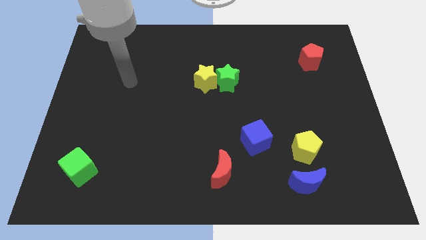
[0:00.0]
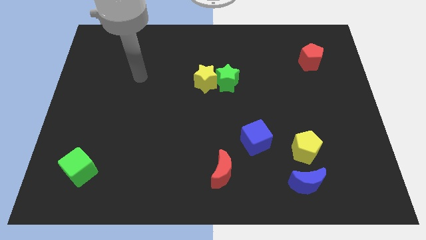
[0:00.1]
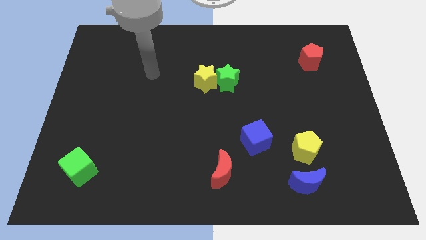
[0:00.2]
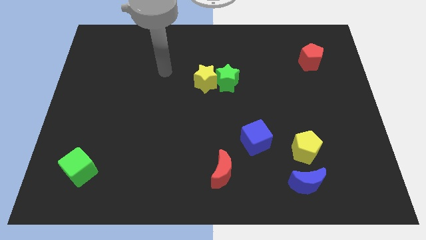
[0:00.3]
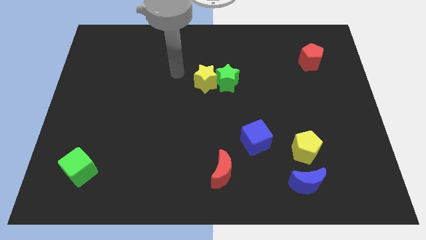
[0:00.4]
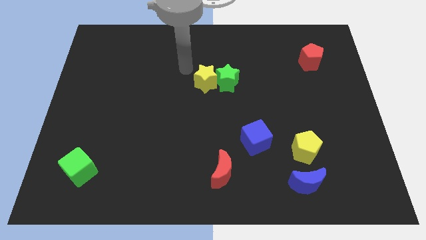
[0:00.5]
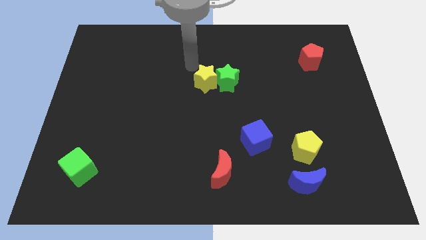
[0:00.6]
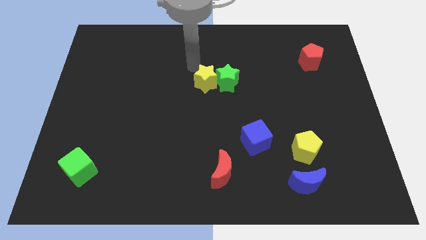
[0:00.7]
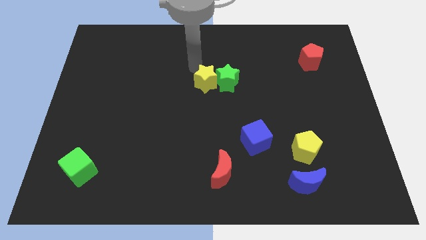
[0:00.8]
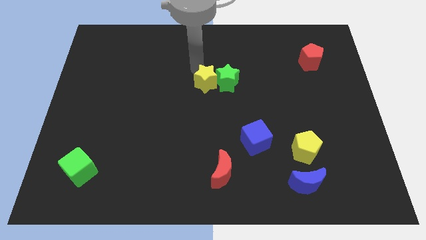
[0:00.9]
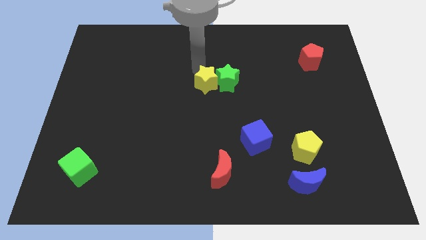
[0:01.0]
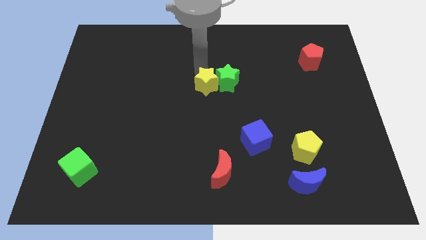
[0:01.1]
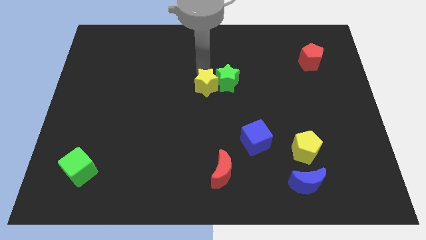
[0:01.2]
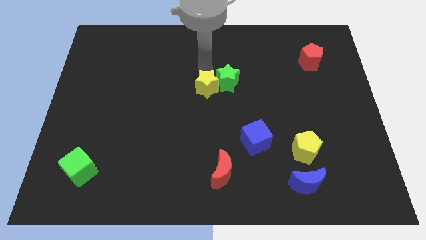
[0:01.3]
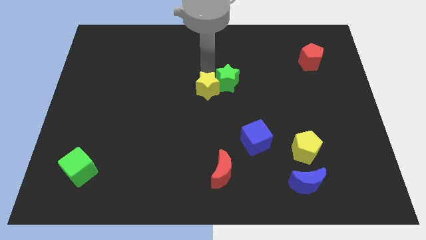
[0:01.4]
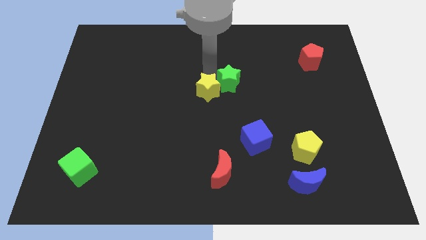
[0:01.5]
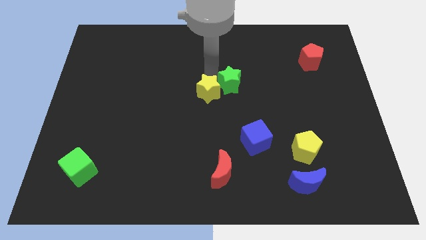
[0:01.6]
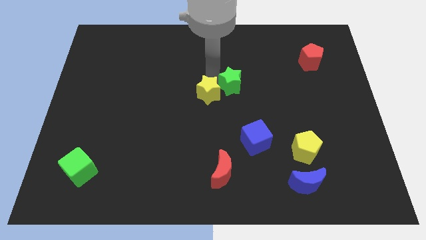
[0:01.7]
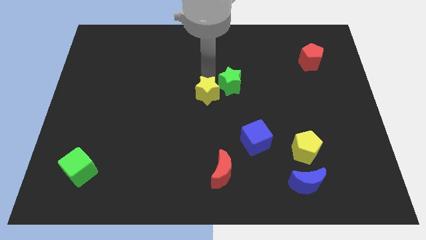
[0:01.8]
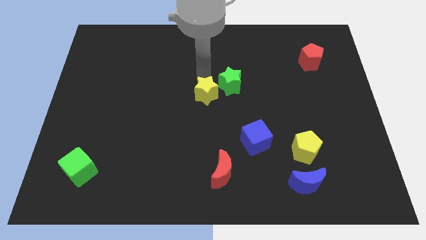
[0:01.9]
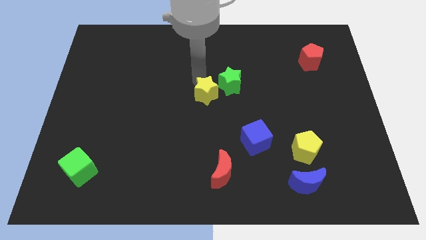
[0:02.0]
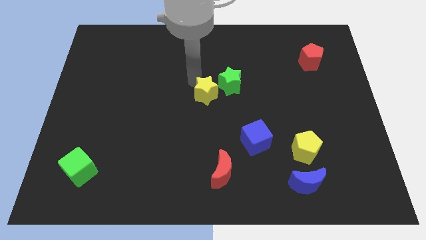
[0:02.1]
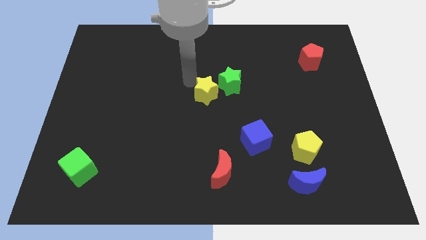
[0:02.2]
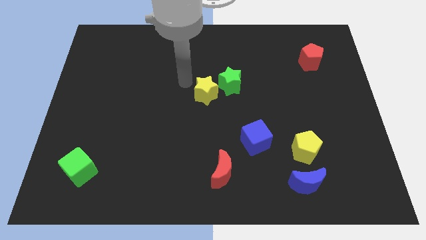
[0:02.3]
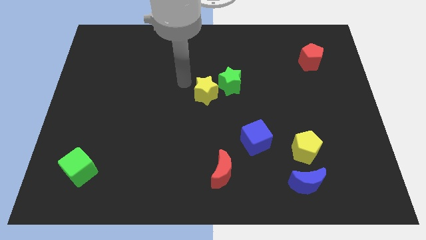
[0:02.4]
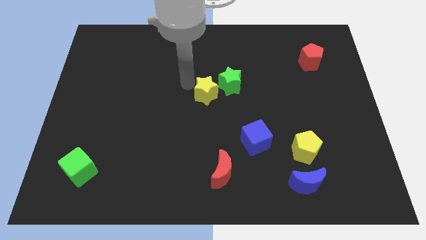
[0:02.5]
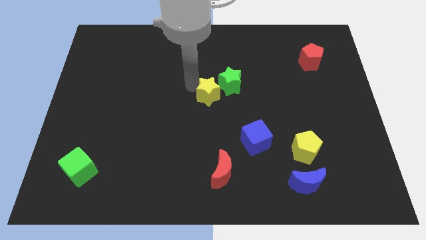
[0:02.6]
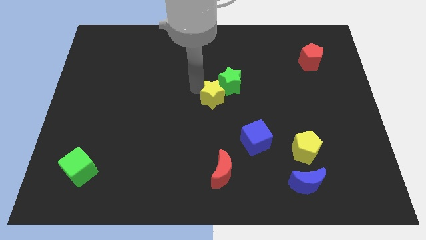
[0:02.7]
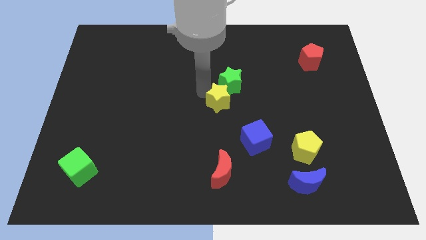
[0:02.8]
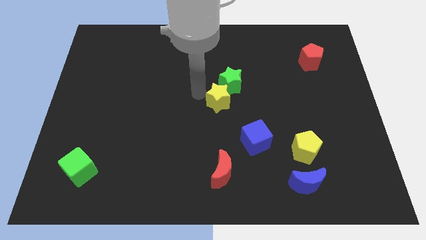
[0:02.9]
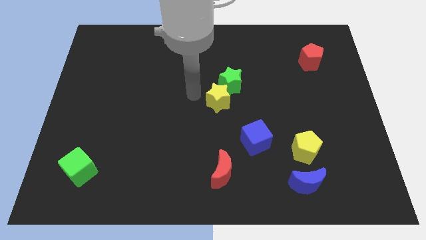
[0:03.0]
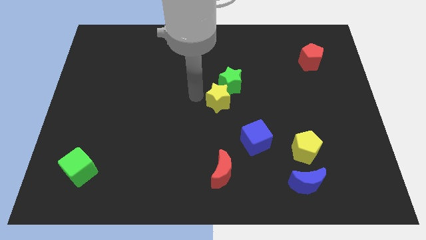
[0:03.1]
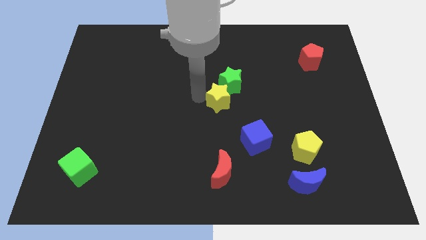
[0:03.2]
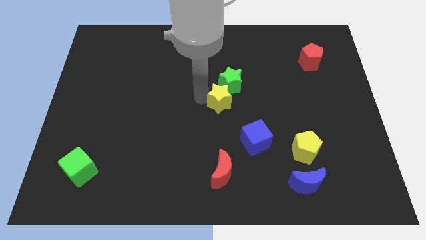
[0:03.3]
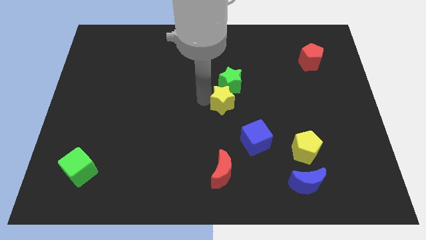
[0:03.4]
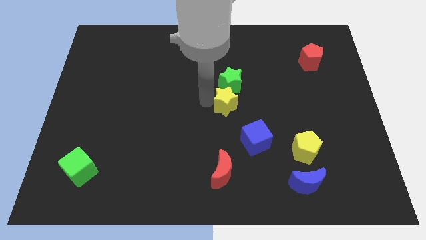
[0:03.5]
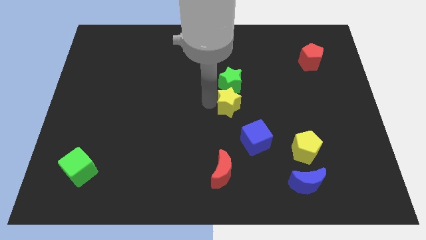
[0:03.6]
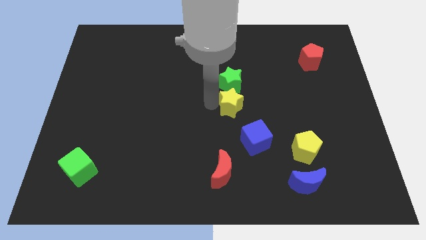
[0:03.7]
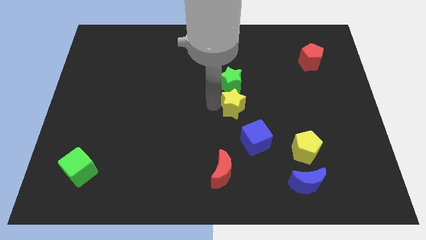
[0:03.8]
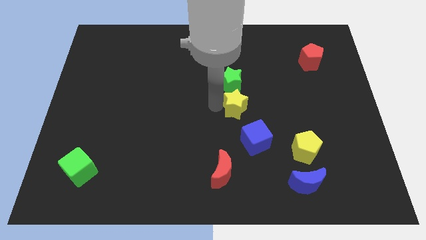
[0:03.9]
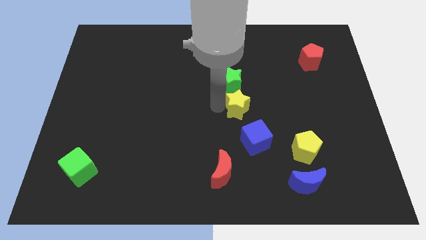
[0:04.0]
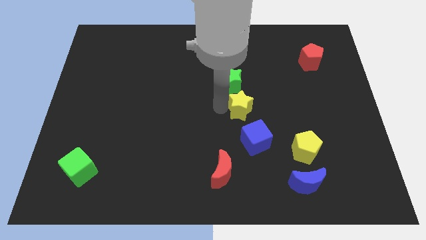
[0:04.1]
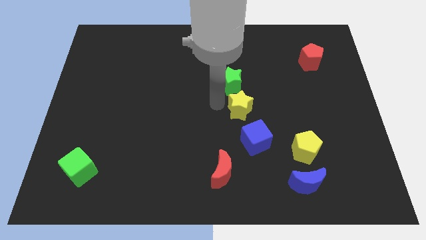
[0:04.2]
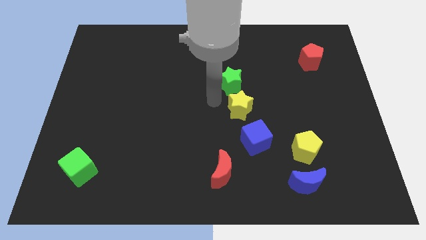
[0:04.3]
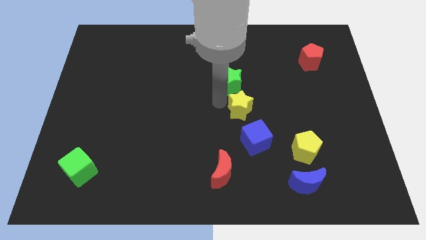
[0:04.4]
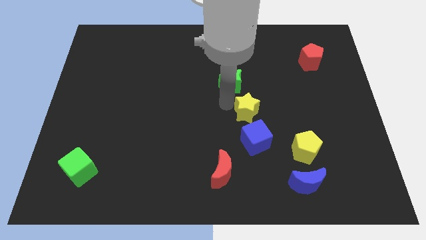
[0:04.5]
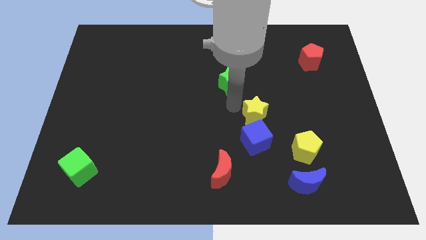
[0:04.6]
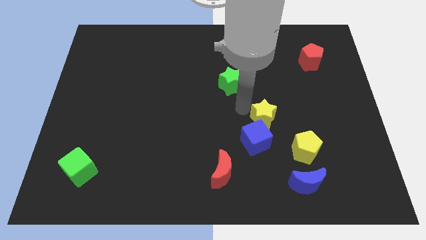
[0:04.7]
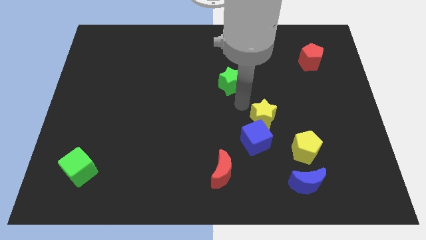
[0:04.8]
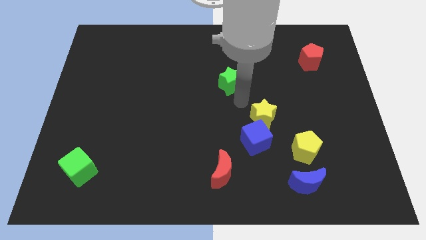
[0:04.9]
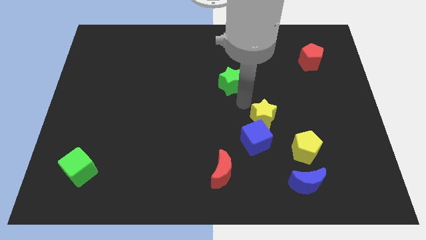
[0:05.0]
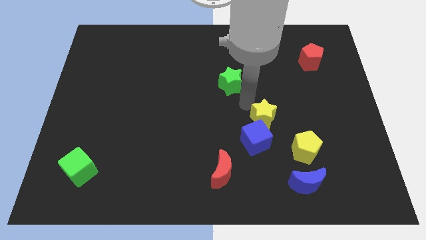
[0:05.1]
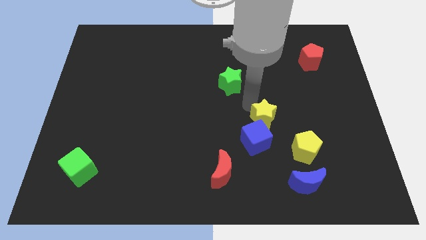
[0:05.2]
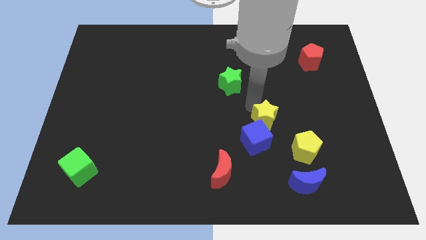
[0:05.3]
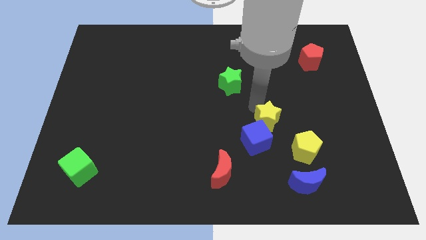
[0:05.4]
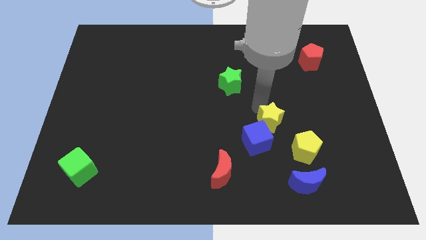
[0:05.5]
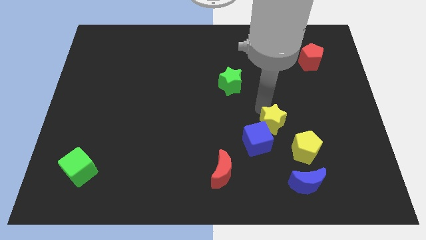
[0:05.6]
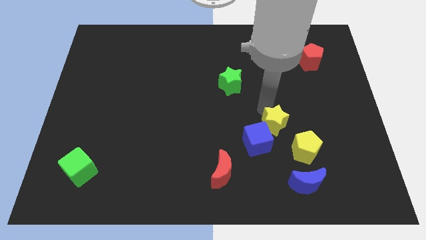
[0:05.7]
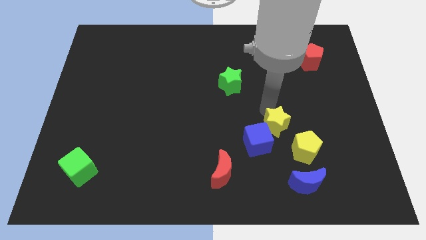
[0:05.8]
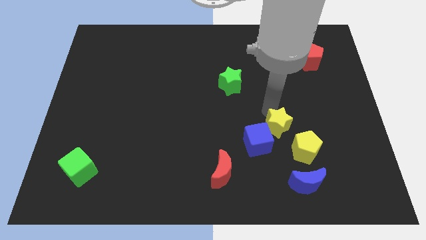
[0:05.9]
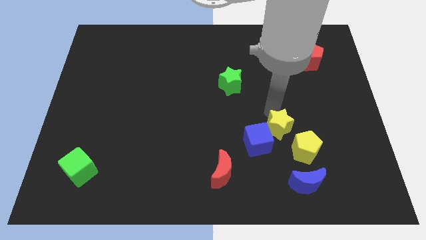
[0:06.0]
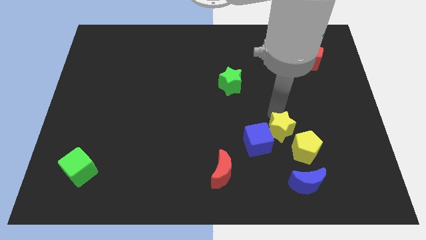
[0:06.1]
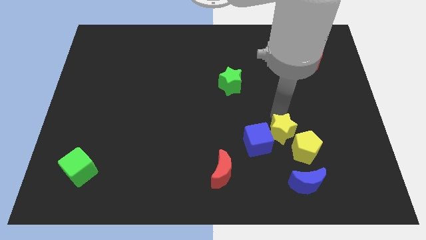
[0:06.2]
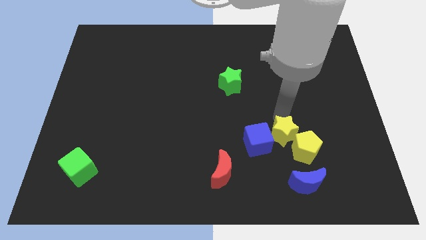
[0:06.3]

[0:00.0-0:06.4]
push the yellow star towards the yellow pentagon
